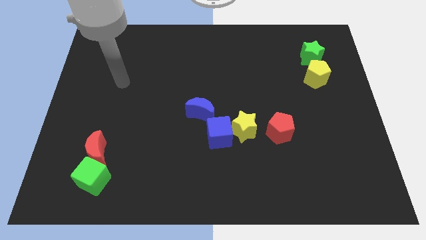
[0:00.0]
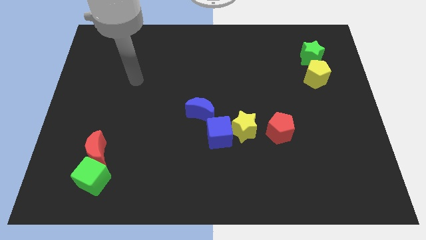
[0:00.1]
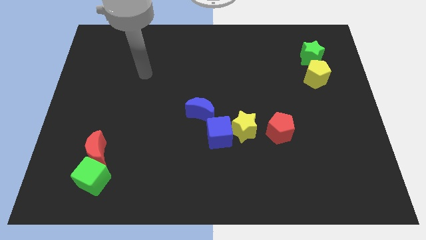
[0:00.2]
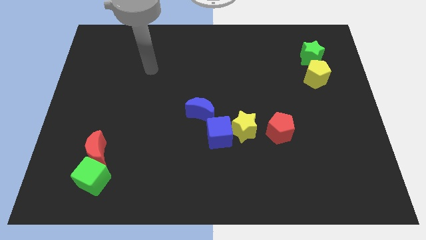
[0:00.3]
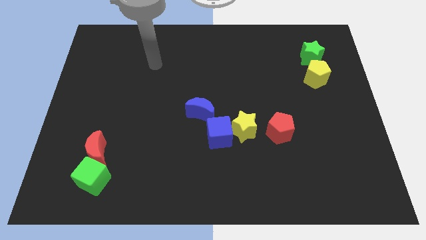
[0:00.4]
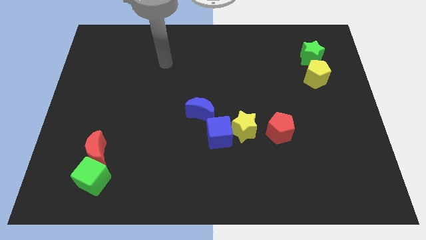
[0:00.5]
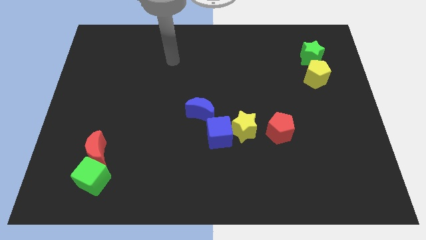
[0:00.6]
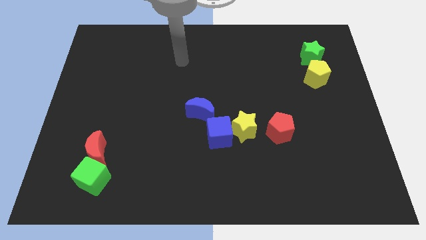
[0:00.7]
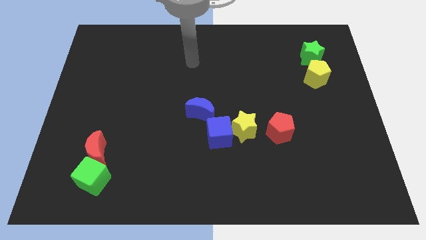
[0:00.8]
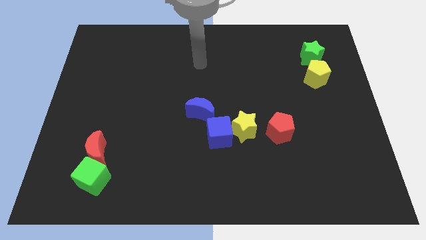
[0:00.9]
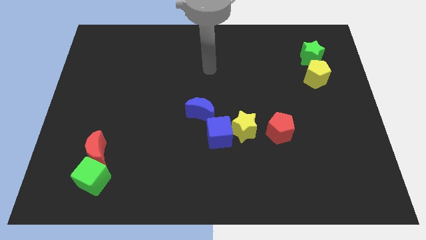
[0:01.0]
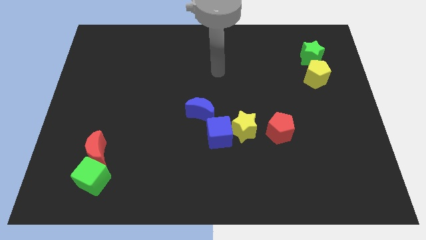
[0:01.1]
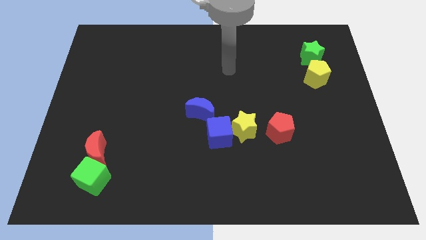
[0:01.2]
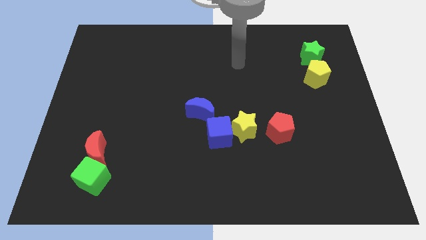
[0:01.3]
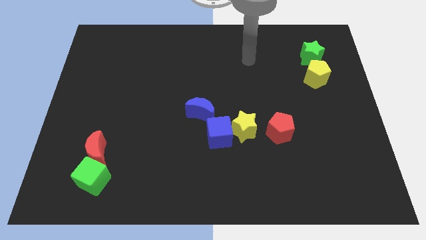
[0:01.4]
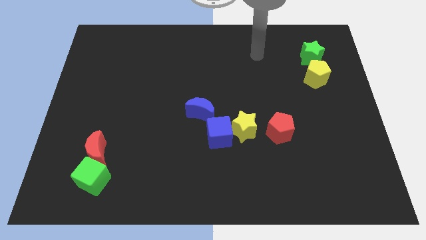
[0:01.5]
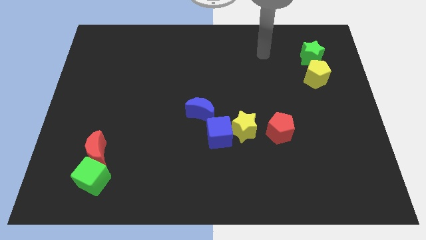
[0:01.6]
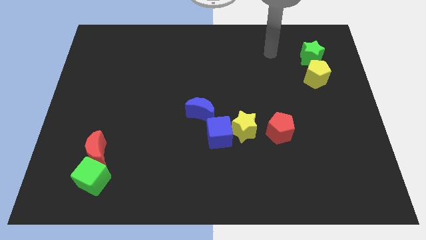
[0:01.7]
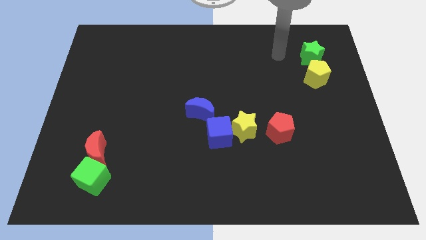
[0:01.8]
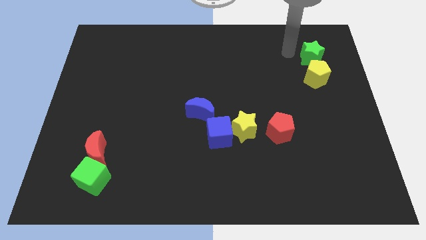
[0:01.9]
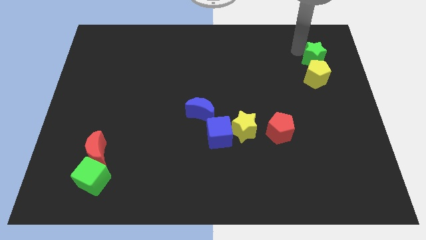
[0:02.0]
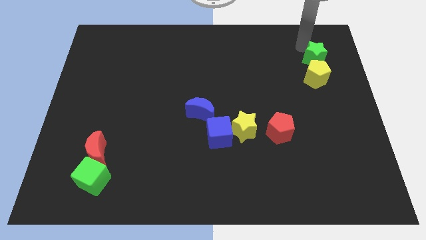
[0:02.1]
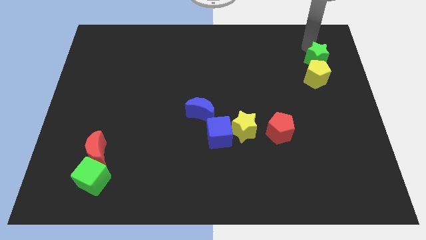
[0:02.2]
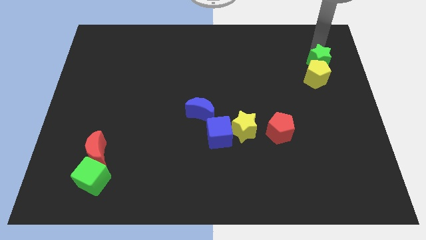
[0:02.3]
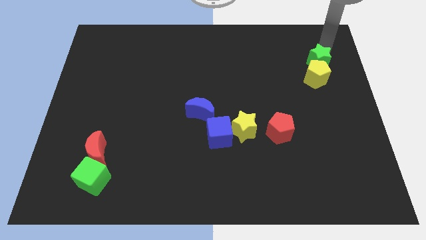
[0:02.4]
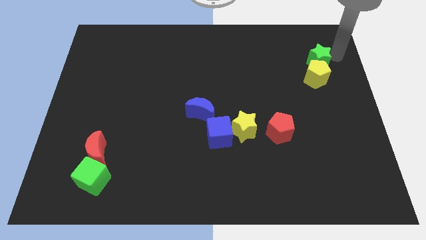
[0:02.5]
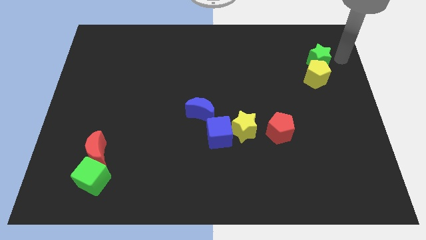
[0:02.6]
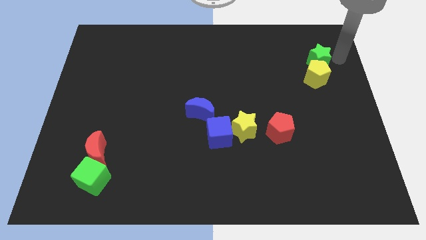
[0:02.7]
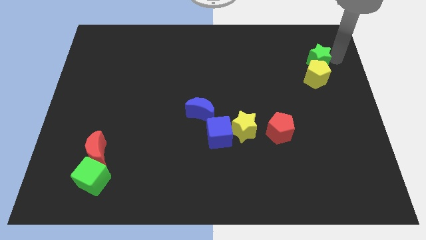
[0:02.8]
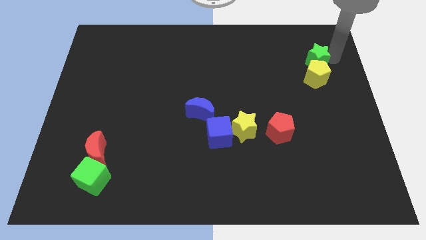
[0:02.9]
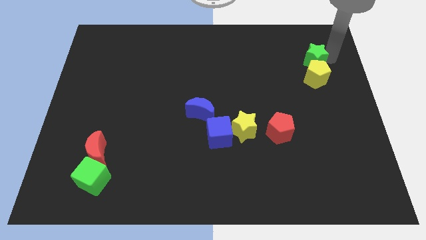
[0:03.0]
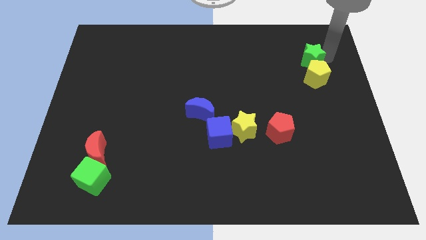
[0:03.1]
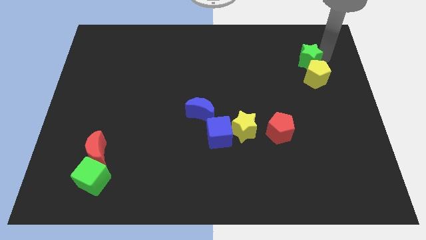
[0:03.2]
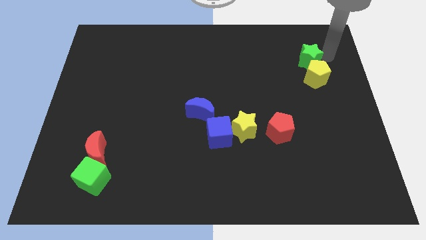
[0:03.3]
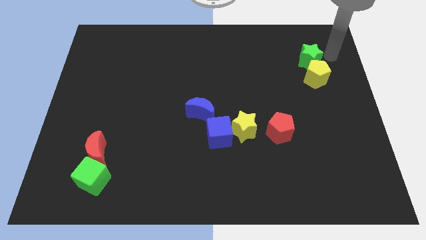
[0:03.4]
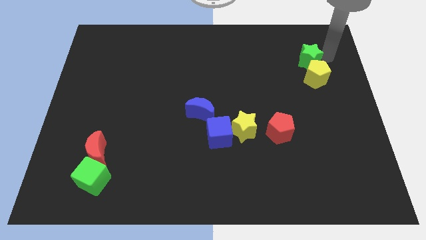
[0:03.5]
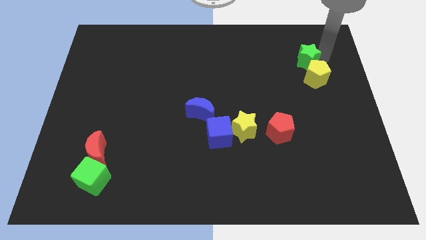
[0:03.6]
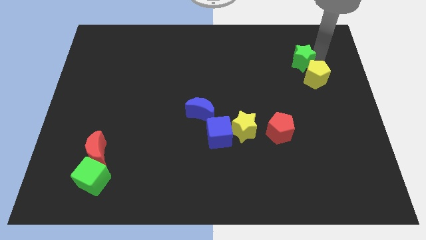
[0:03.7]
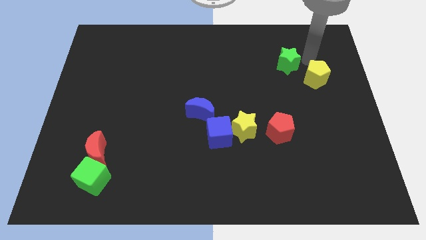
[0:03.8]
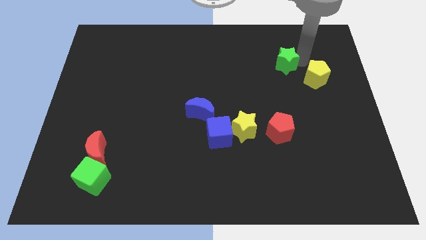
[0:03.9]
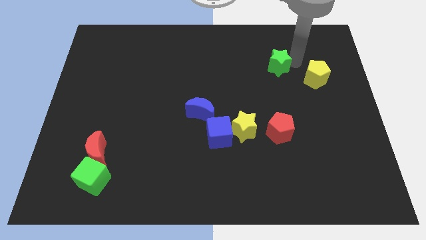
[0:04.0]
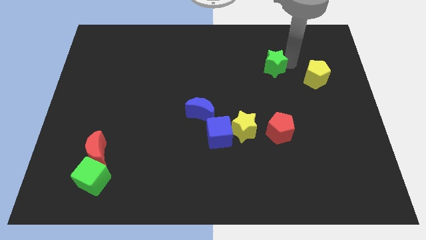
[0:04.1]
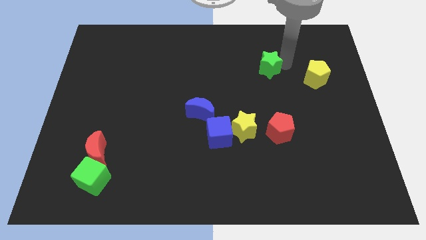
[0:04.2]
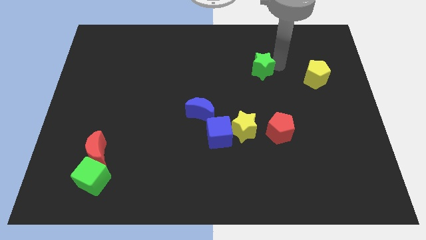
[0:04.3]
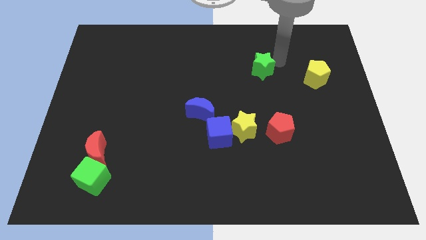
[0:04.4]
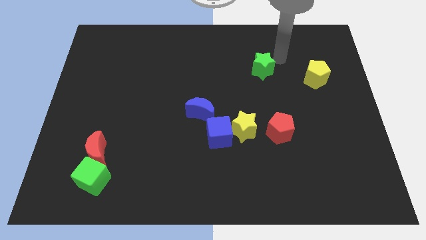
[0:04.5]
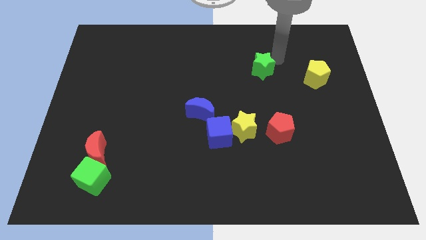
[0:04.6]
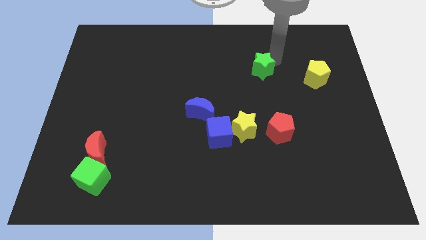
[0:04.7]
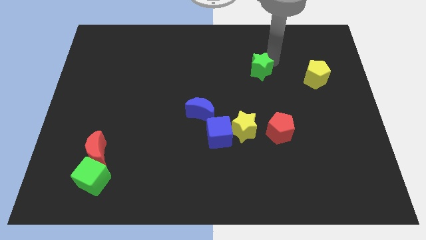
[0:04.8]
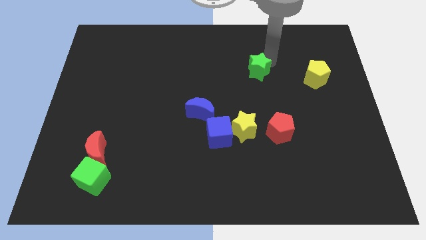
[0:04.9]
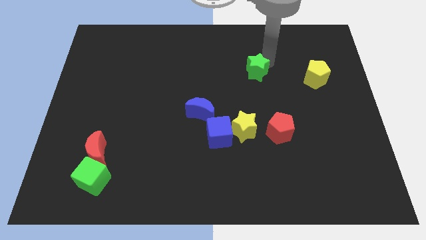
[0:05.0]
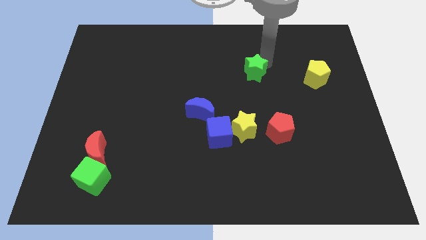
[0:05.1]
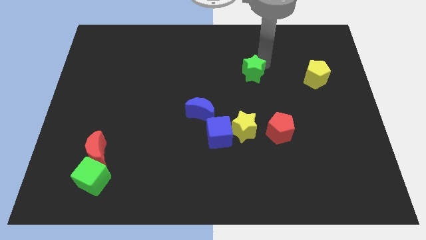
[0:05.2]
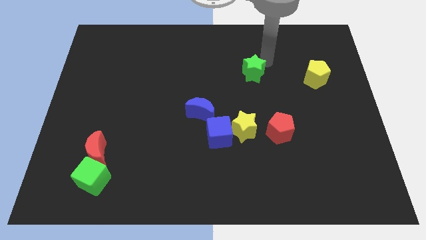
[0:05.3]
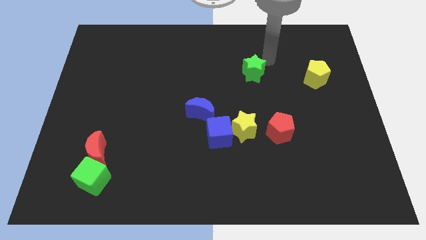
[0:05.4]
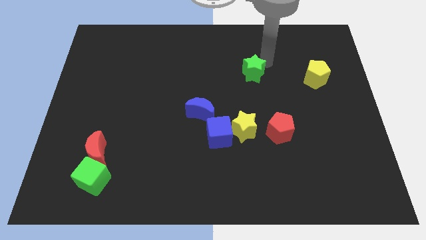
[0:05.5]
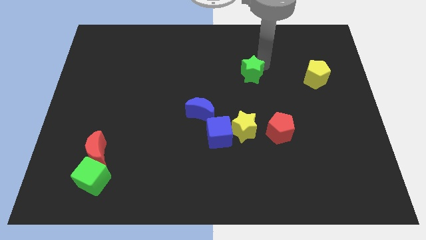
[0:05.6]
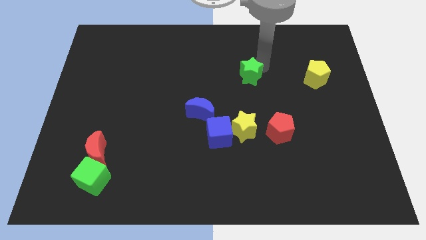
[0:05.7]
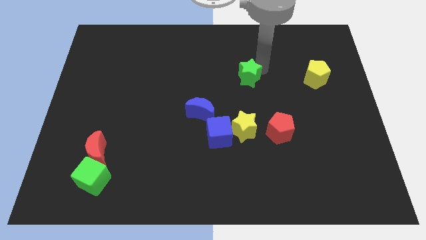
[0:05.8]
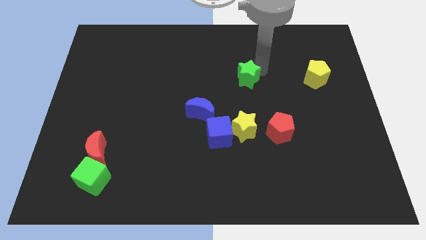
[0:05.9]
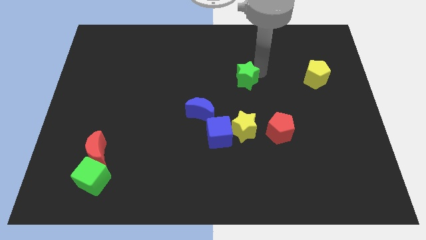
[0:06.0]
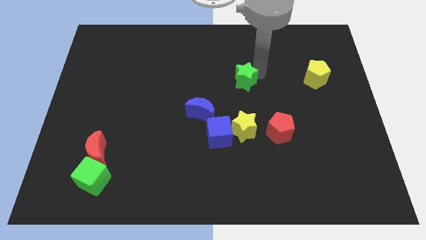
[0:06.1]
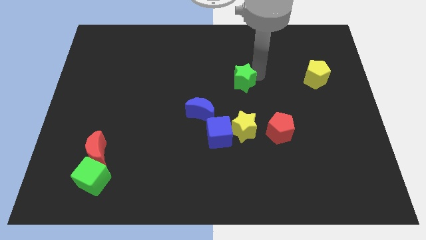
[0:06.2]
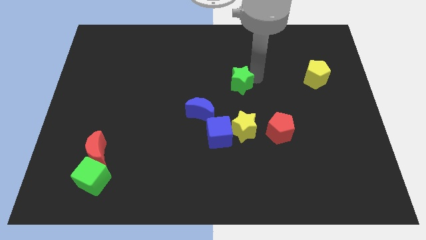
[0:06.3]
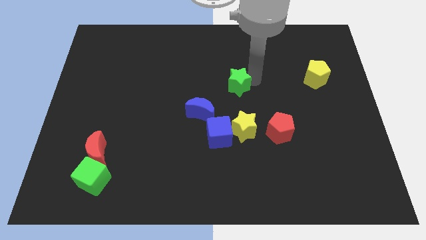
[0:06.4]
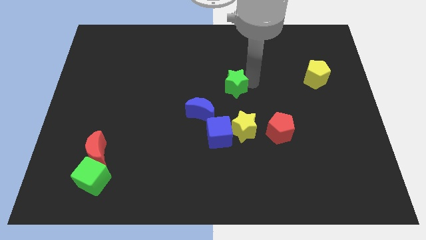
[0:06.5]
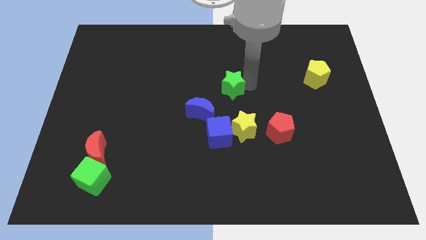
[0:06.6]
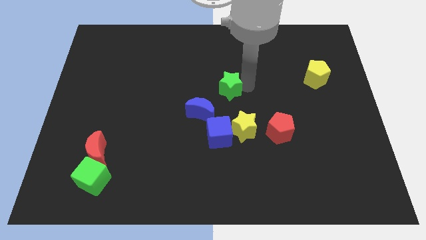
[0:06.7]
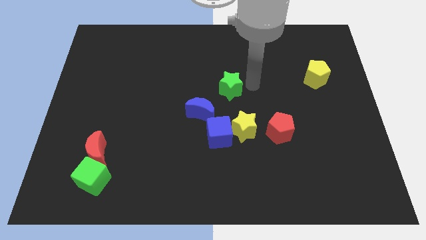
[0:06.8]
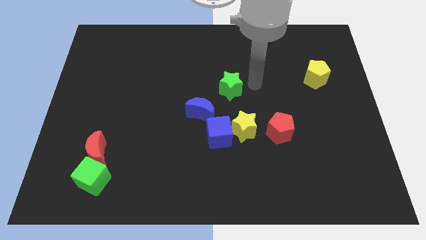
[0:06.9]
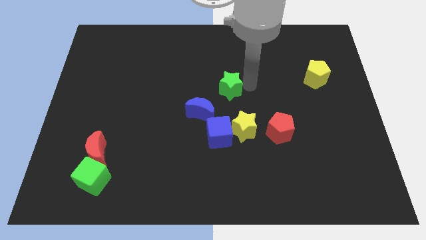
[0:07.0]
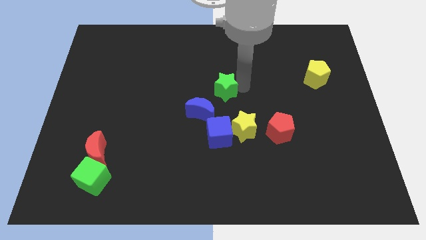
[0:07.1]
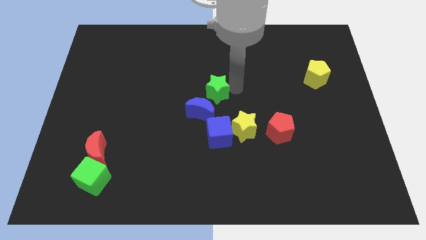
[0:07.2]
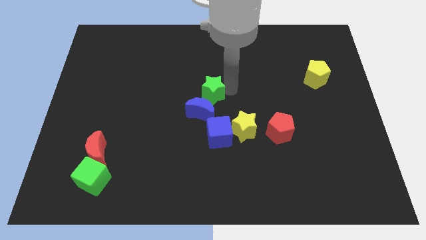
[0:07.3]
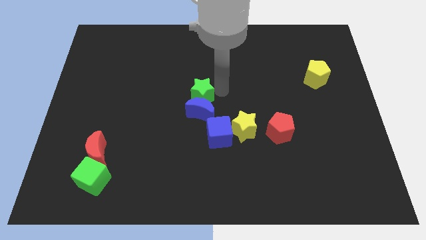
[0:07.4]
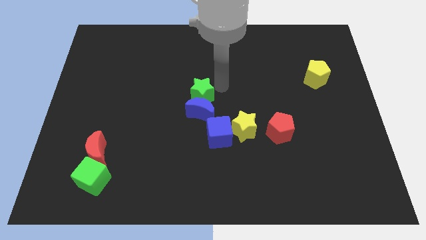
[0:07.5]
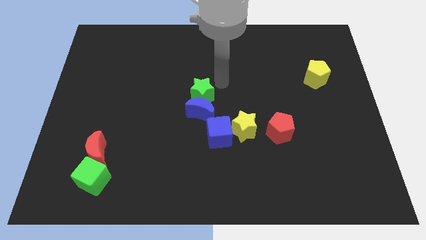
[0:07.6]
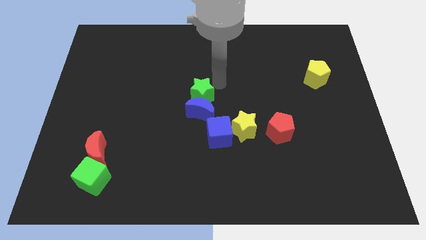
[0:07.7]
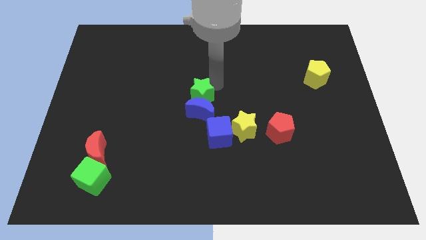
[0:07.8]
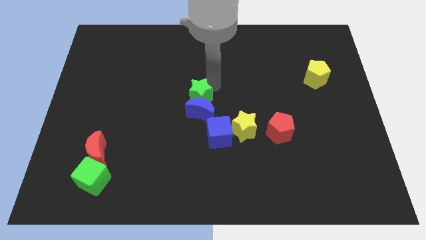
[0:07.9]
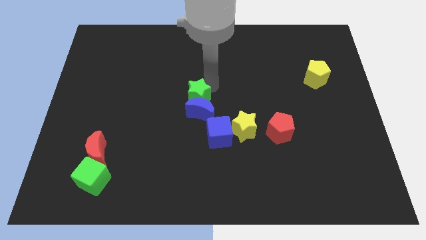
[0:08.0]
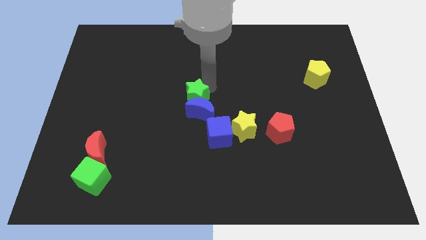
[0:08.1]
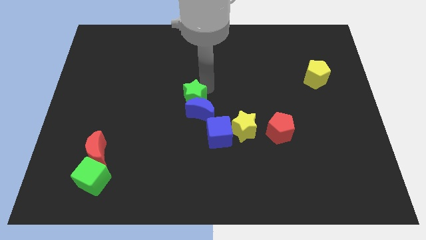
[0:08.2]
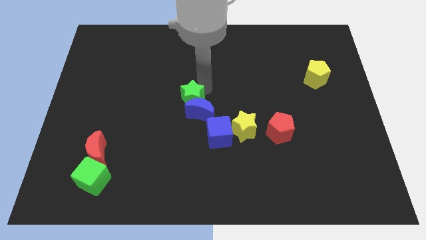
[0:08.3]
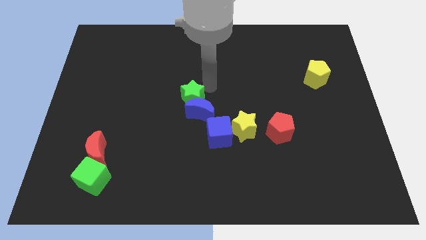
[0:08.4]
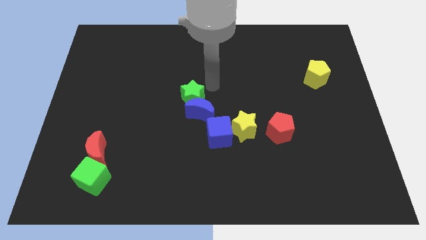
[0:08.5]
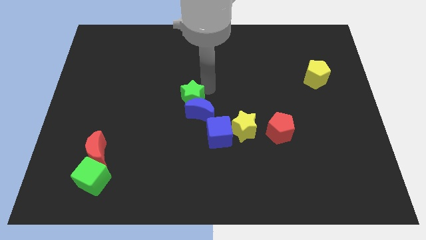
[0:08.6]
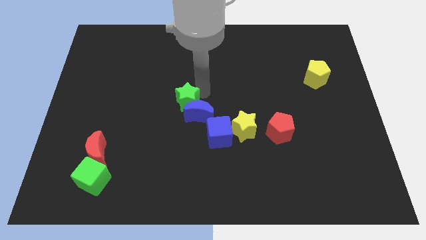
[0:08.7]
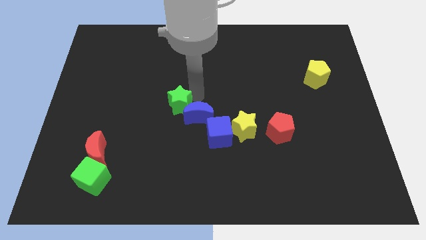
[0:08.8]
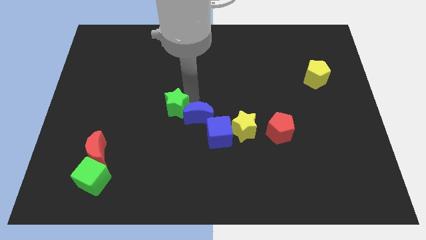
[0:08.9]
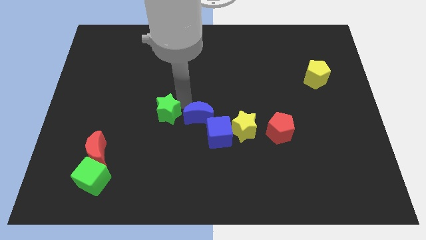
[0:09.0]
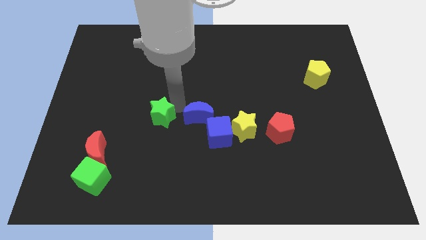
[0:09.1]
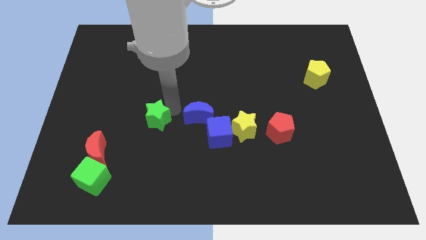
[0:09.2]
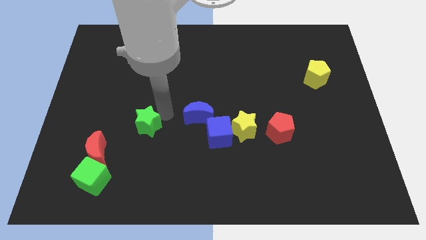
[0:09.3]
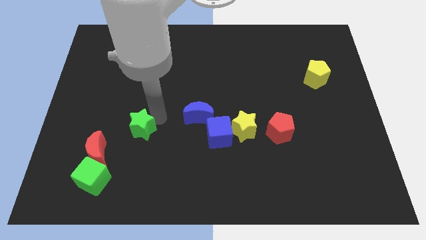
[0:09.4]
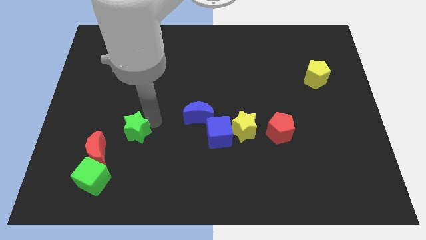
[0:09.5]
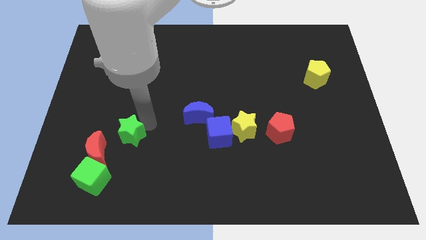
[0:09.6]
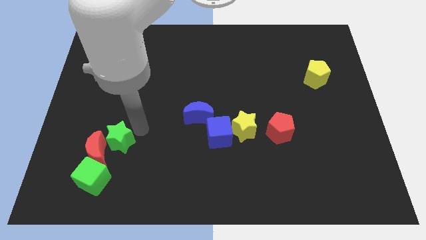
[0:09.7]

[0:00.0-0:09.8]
slide the green star to the red moon
